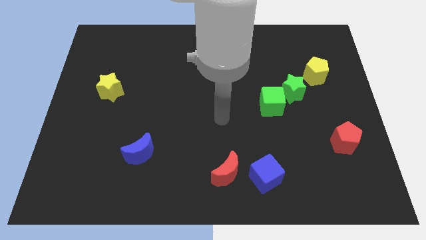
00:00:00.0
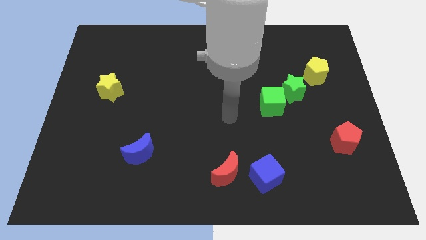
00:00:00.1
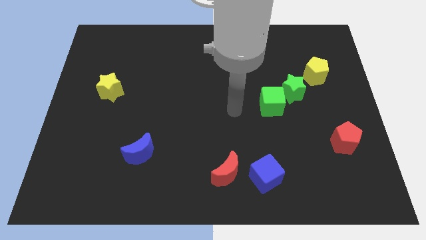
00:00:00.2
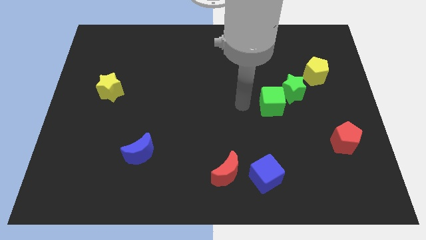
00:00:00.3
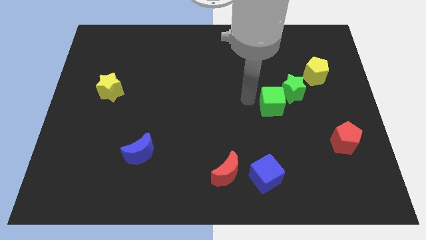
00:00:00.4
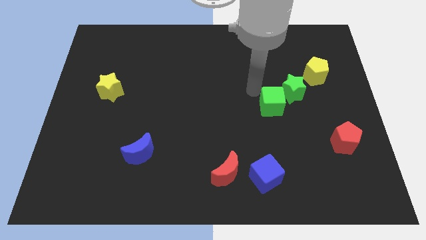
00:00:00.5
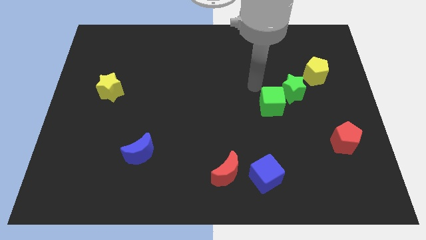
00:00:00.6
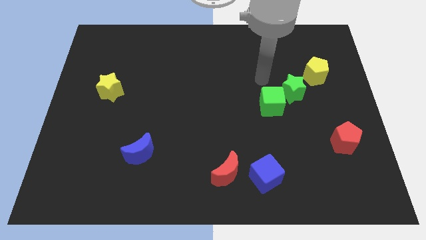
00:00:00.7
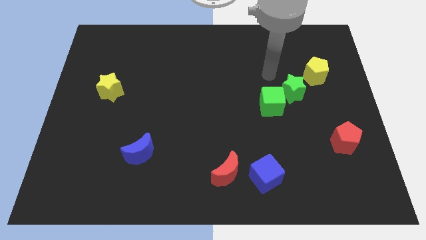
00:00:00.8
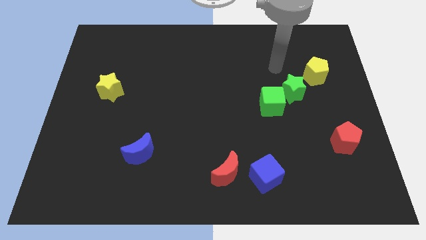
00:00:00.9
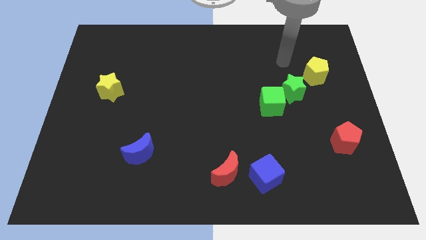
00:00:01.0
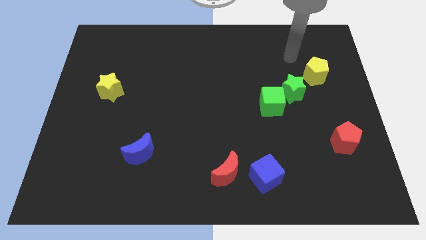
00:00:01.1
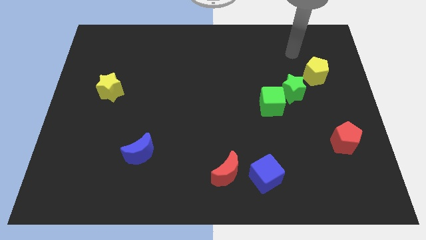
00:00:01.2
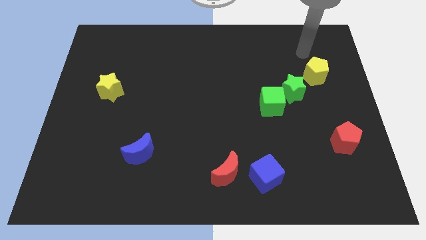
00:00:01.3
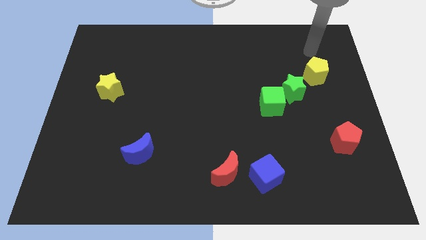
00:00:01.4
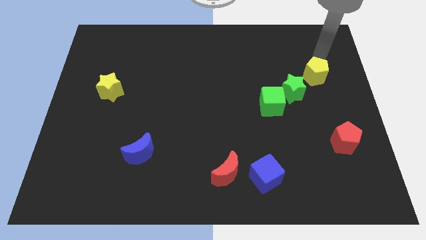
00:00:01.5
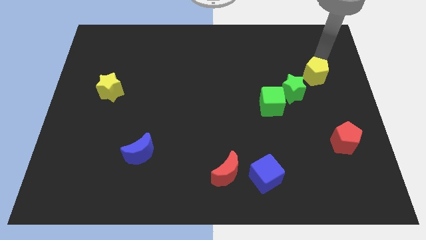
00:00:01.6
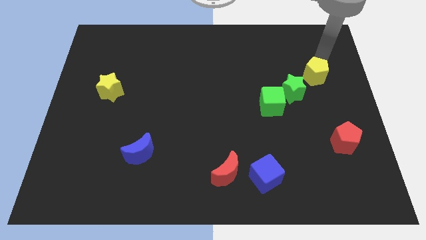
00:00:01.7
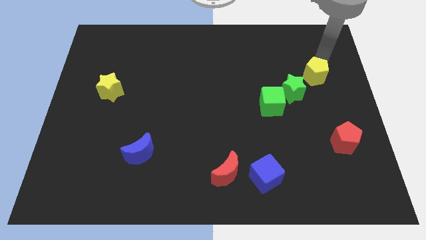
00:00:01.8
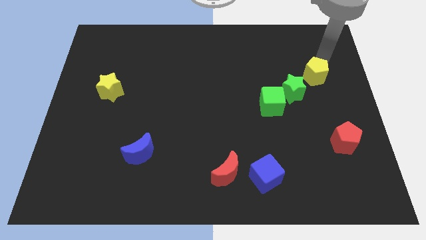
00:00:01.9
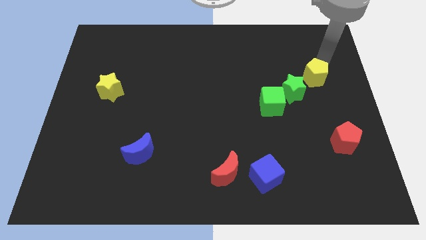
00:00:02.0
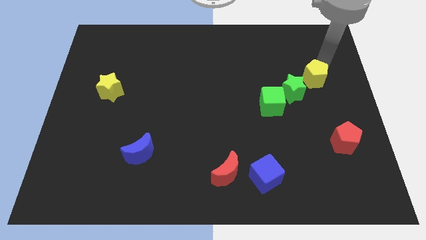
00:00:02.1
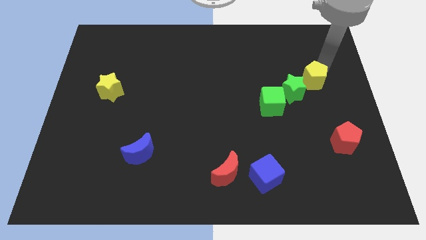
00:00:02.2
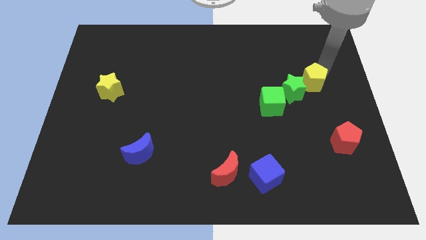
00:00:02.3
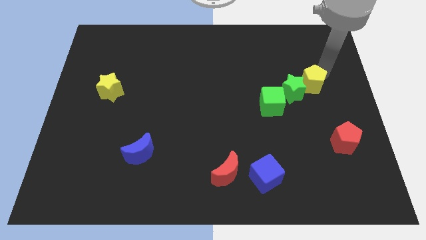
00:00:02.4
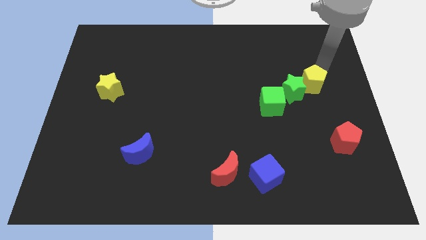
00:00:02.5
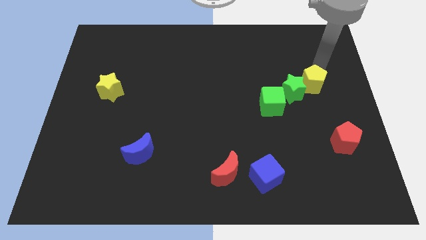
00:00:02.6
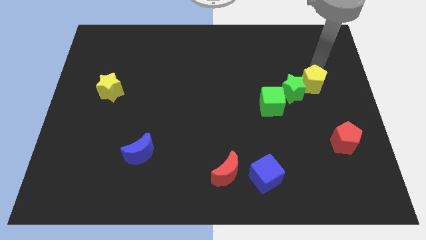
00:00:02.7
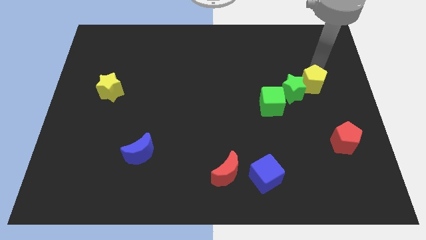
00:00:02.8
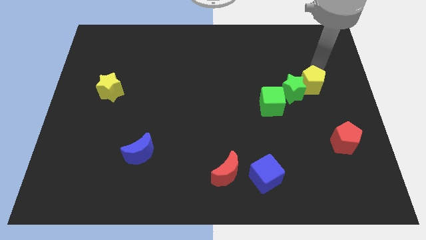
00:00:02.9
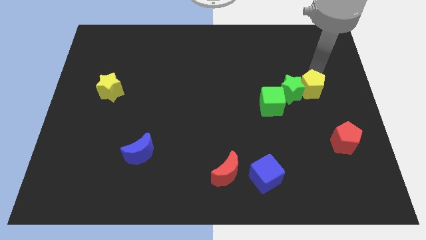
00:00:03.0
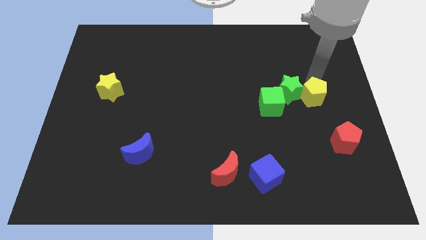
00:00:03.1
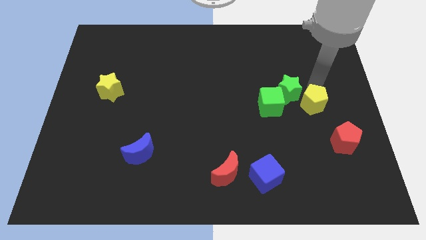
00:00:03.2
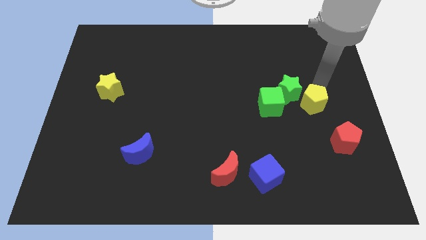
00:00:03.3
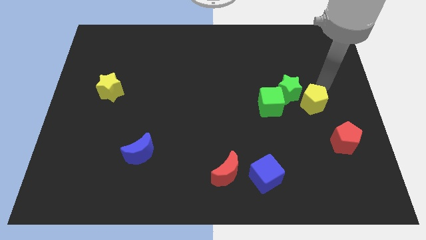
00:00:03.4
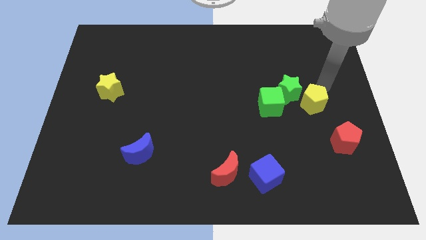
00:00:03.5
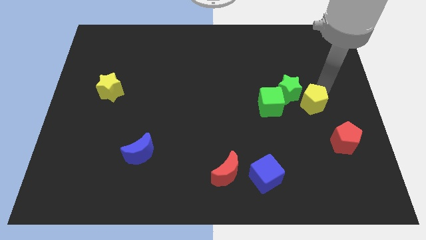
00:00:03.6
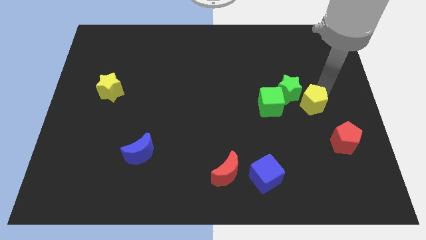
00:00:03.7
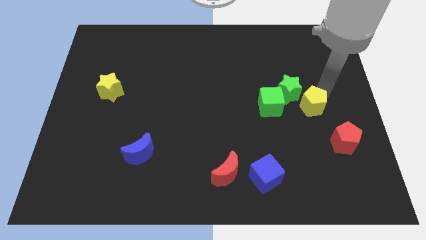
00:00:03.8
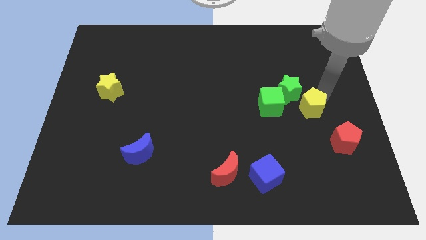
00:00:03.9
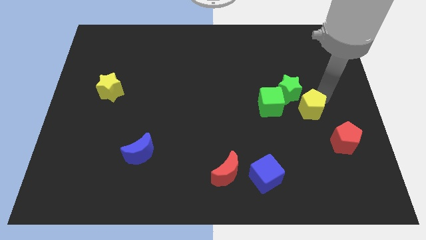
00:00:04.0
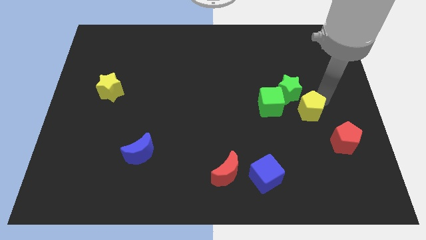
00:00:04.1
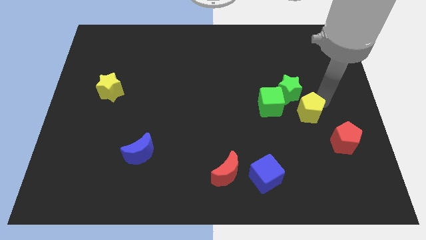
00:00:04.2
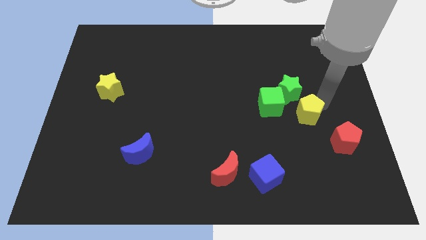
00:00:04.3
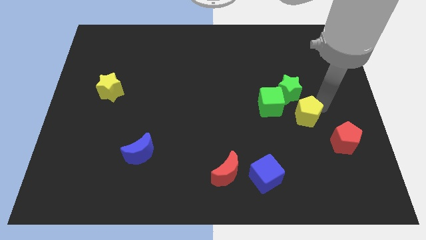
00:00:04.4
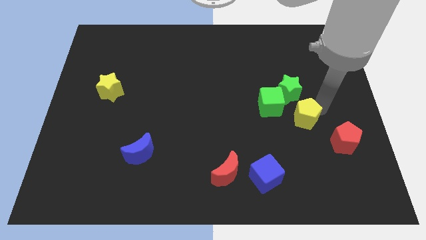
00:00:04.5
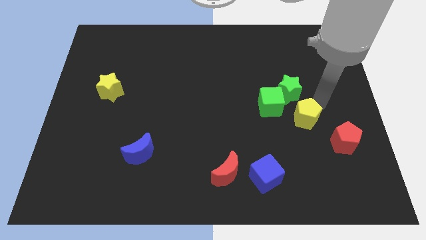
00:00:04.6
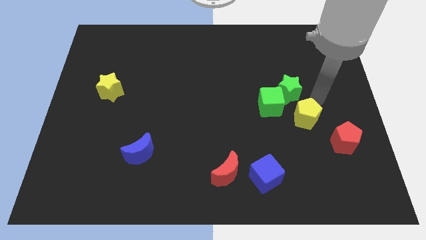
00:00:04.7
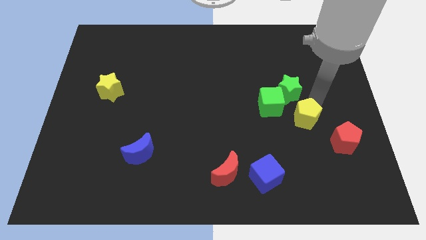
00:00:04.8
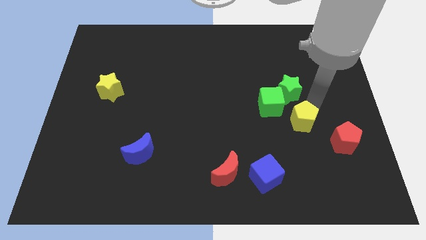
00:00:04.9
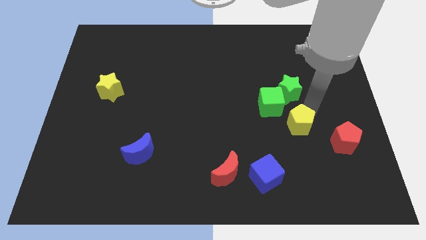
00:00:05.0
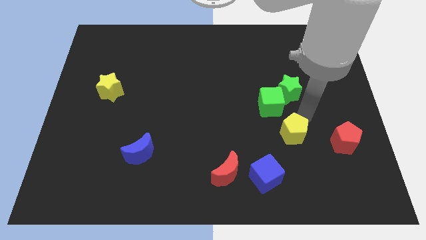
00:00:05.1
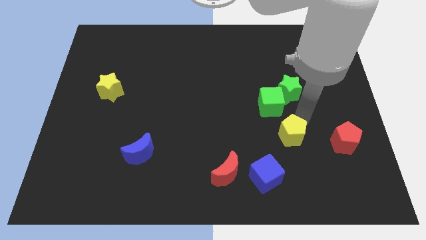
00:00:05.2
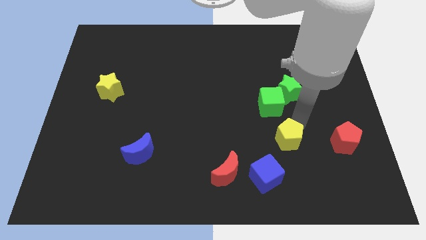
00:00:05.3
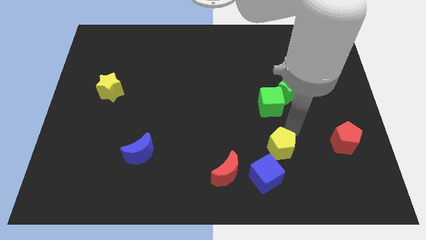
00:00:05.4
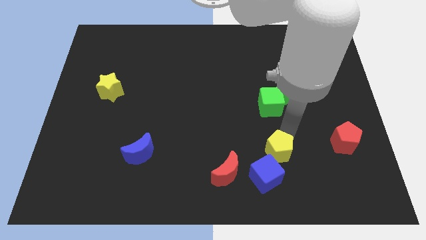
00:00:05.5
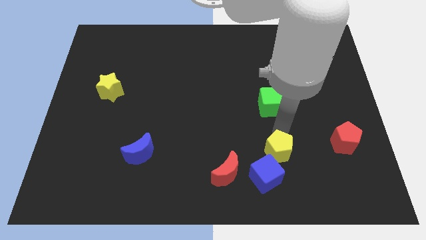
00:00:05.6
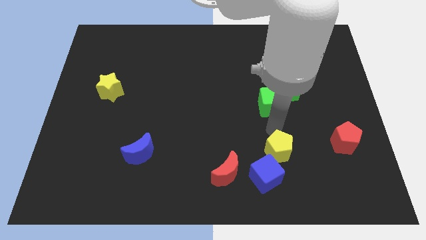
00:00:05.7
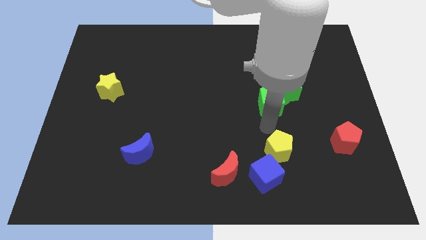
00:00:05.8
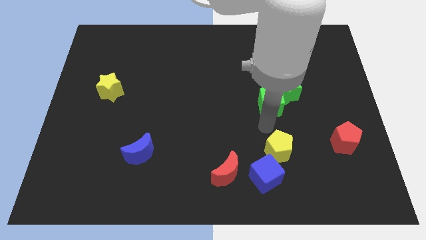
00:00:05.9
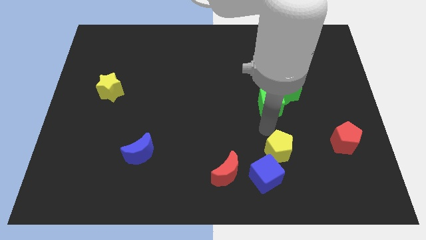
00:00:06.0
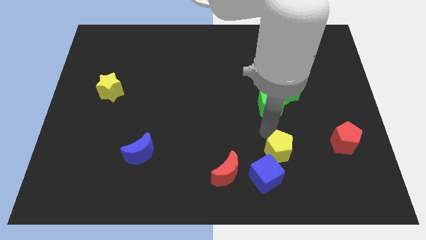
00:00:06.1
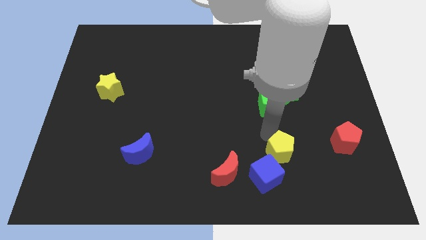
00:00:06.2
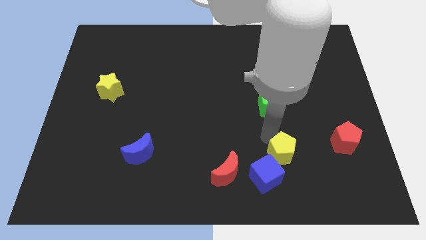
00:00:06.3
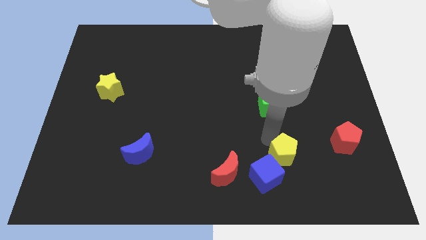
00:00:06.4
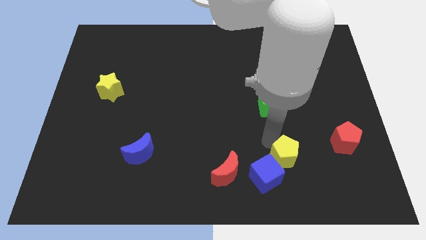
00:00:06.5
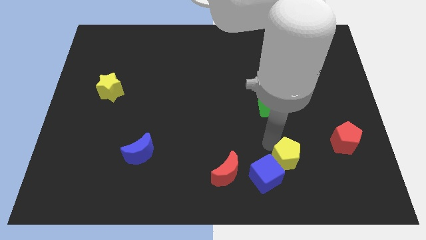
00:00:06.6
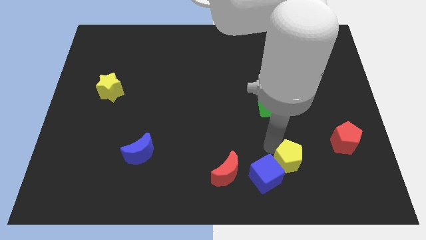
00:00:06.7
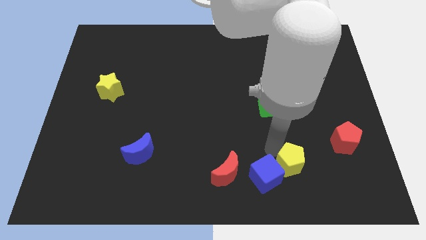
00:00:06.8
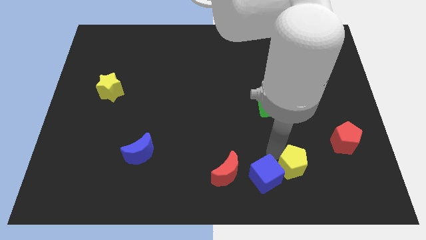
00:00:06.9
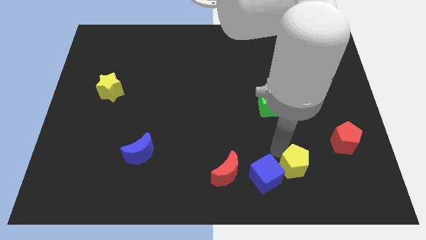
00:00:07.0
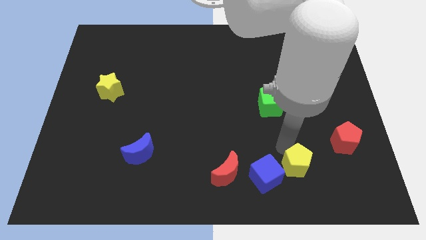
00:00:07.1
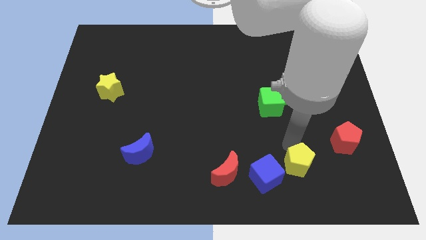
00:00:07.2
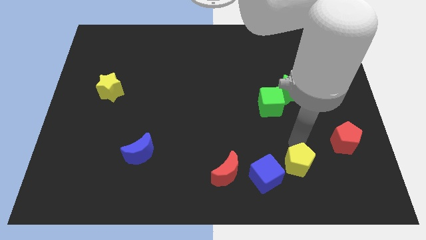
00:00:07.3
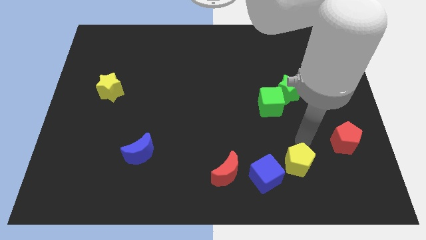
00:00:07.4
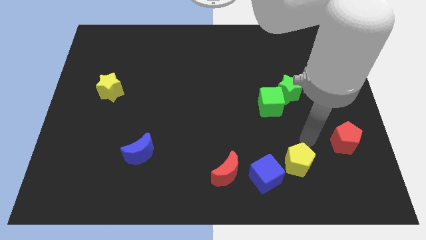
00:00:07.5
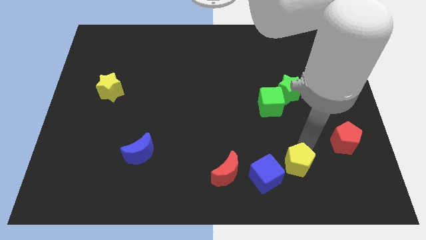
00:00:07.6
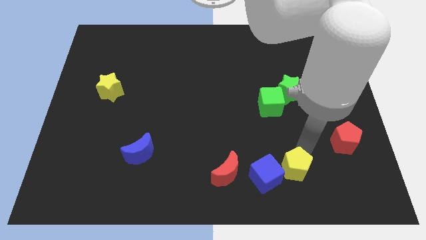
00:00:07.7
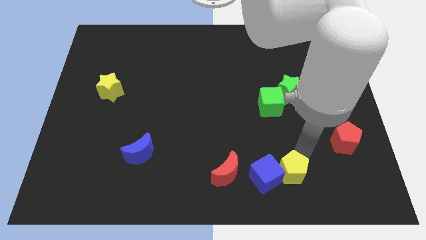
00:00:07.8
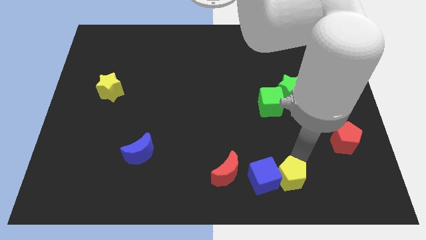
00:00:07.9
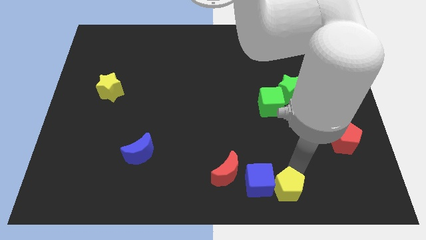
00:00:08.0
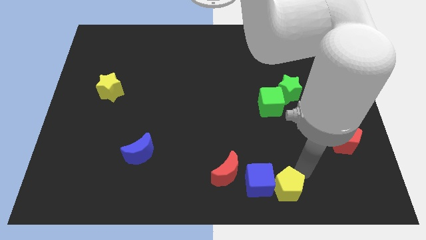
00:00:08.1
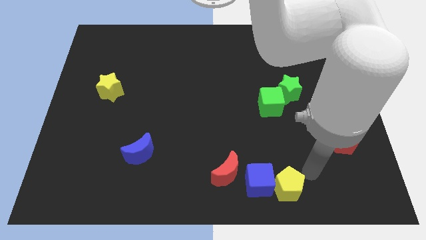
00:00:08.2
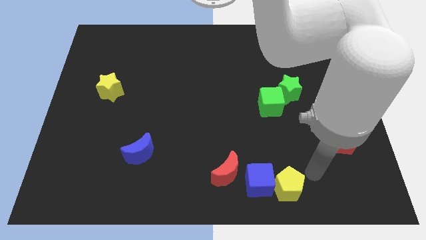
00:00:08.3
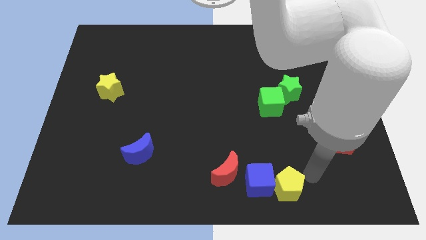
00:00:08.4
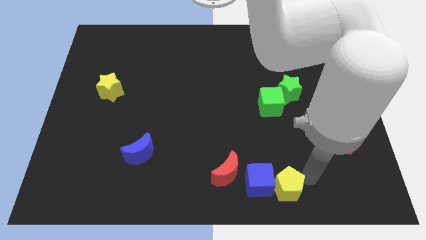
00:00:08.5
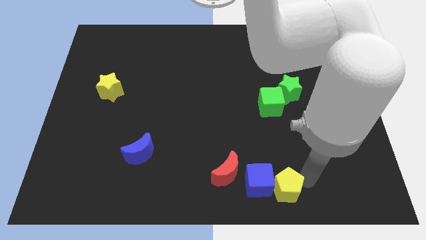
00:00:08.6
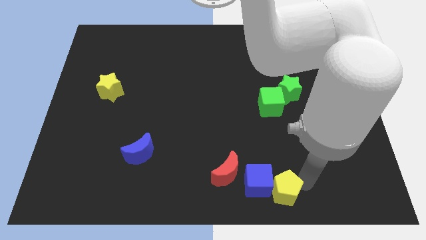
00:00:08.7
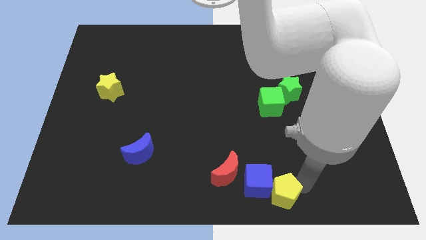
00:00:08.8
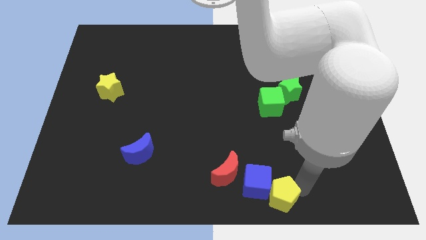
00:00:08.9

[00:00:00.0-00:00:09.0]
push the yellow pentagon to the bottom
